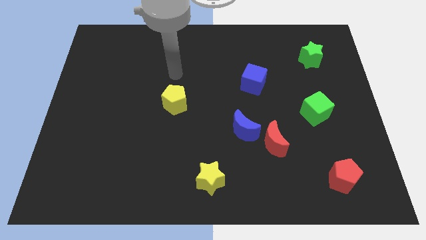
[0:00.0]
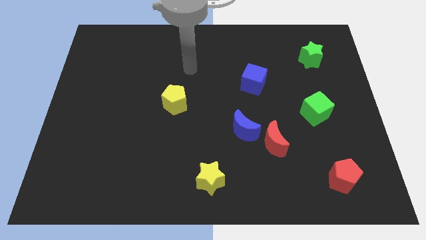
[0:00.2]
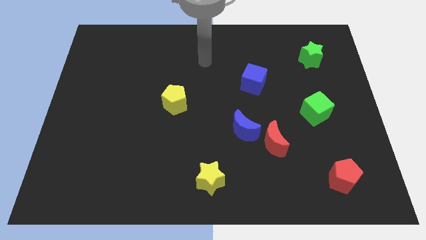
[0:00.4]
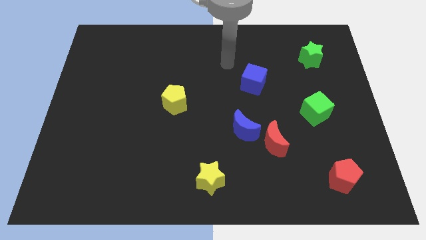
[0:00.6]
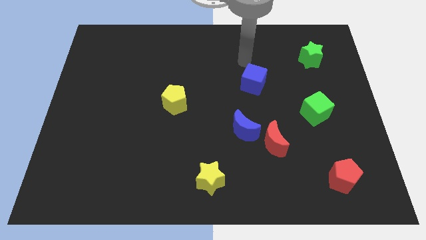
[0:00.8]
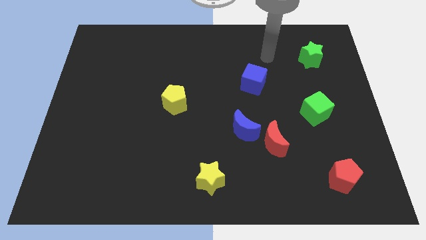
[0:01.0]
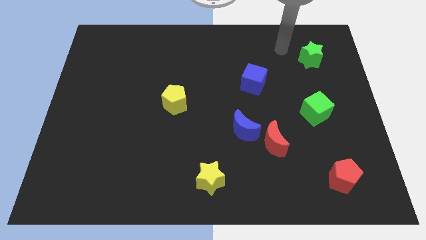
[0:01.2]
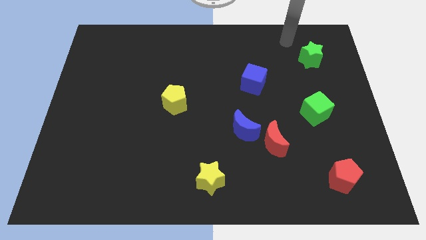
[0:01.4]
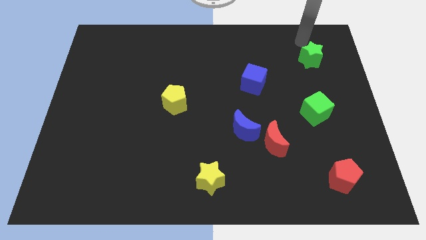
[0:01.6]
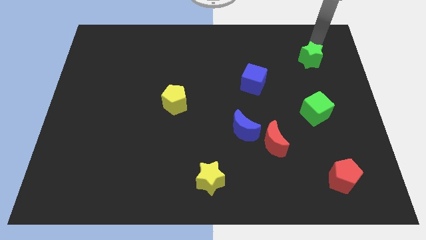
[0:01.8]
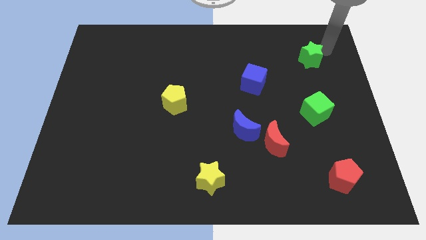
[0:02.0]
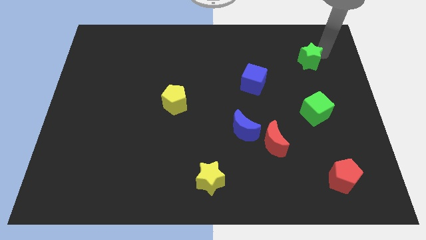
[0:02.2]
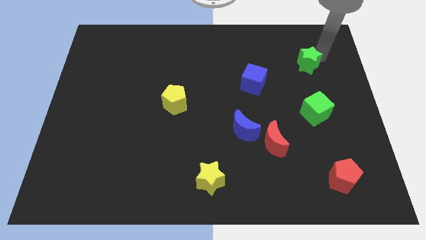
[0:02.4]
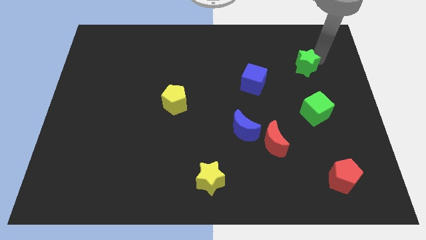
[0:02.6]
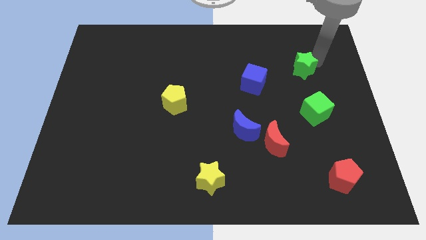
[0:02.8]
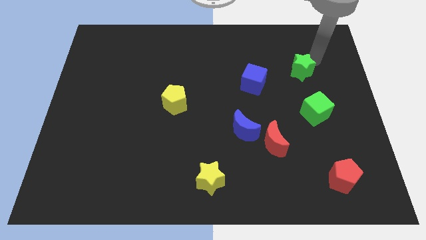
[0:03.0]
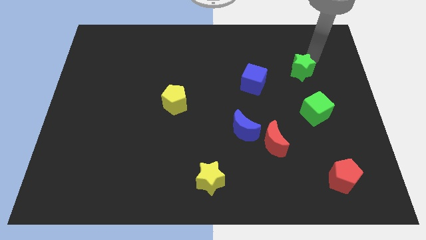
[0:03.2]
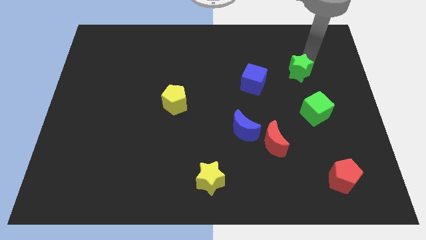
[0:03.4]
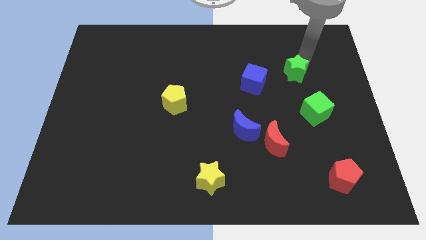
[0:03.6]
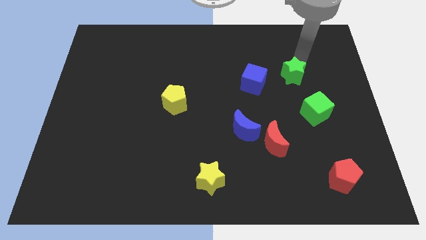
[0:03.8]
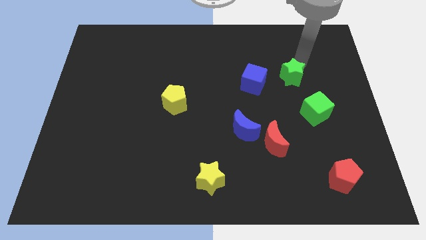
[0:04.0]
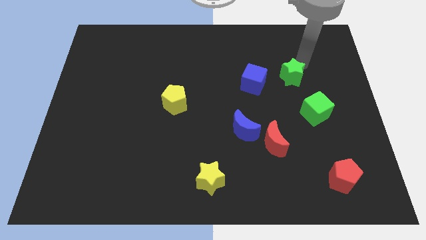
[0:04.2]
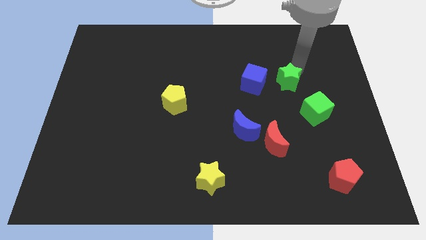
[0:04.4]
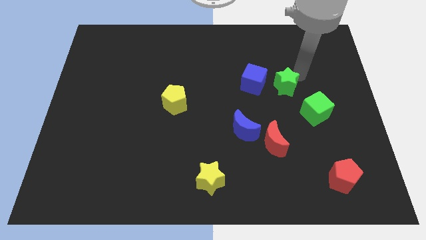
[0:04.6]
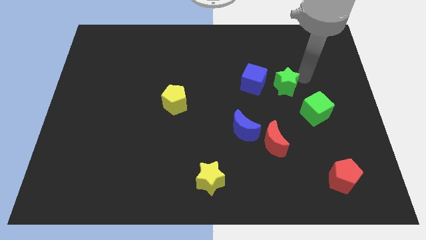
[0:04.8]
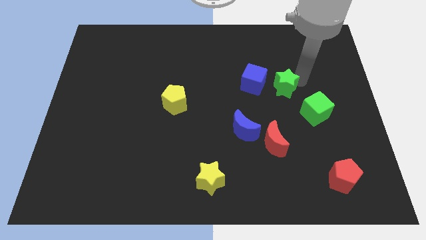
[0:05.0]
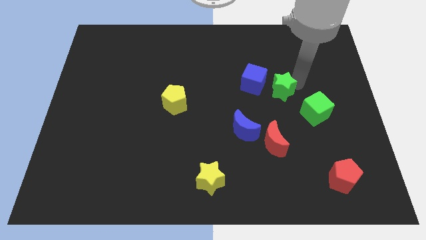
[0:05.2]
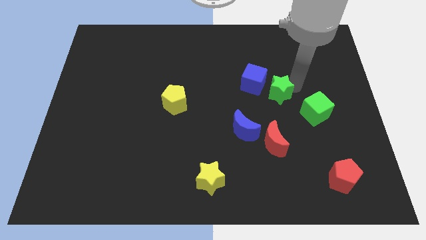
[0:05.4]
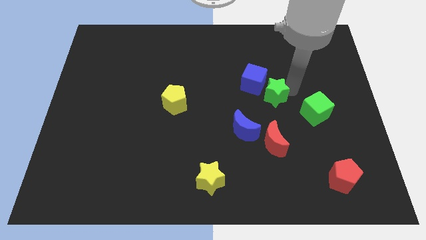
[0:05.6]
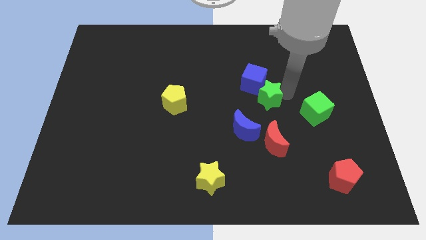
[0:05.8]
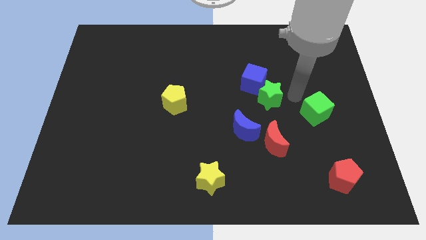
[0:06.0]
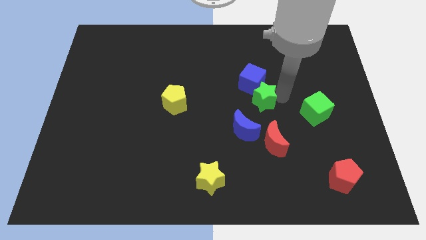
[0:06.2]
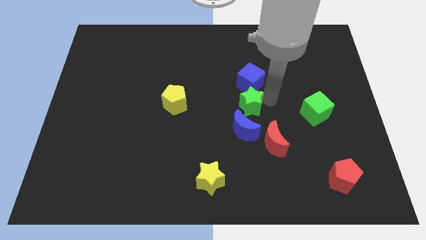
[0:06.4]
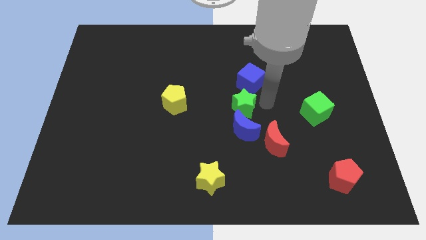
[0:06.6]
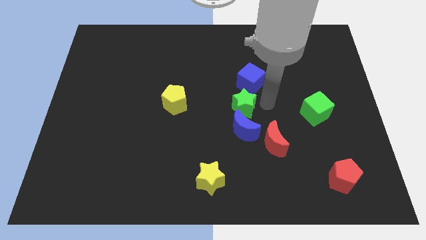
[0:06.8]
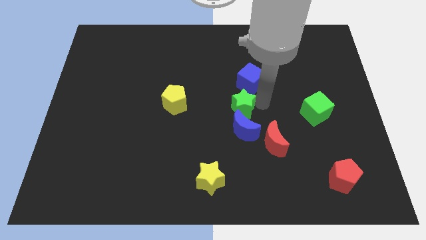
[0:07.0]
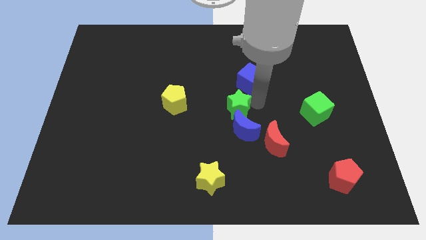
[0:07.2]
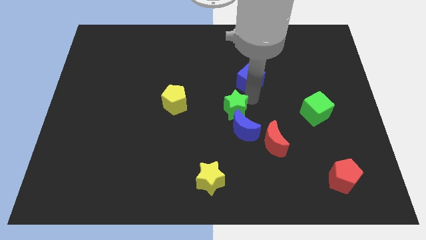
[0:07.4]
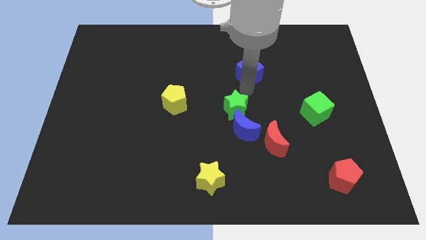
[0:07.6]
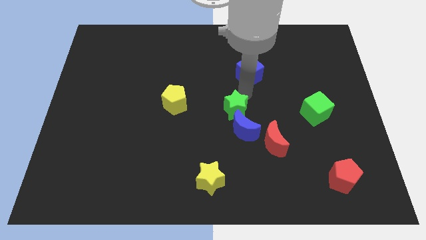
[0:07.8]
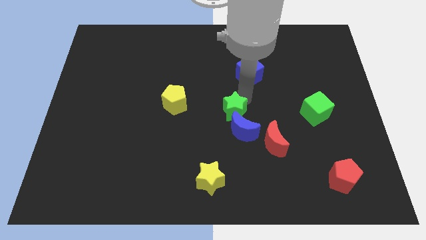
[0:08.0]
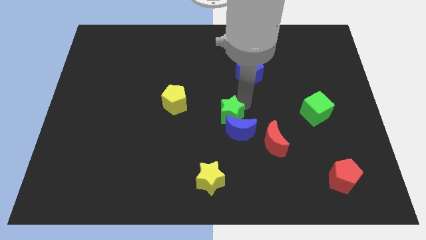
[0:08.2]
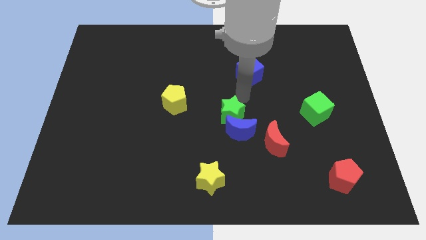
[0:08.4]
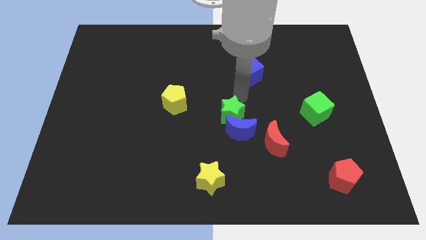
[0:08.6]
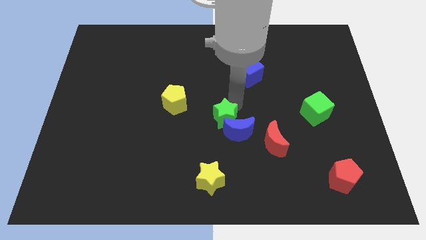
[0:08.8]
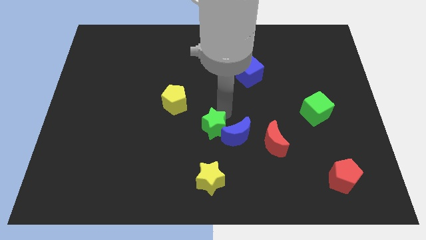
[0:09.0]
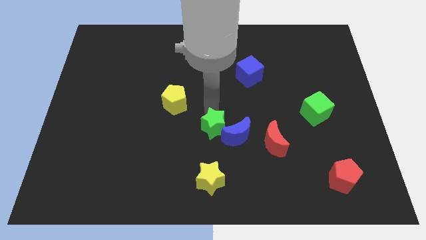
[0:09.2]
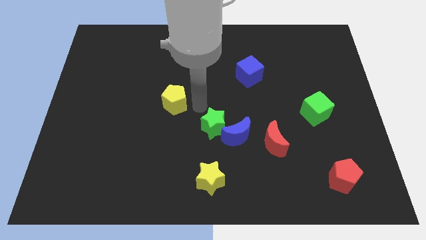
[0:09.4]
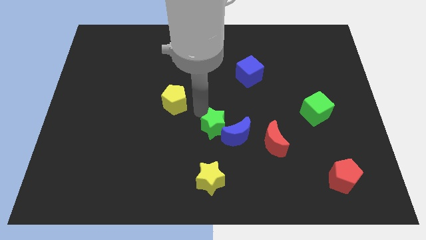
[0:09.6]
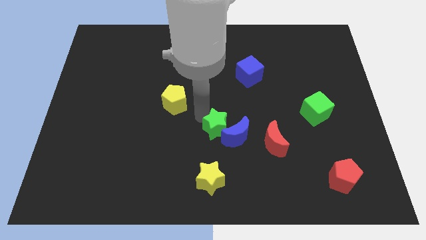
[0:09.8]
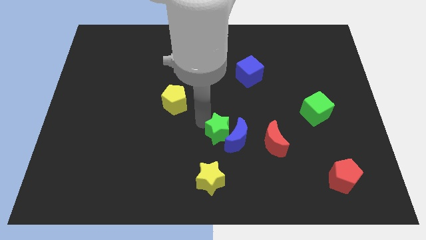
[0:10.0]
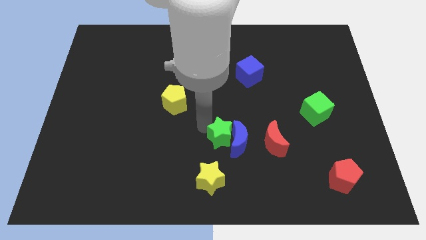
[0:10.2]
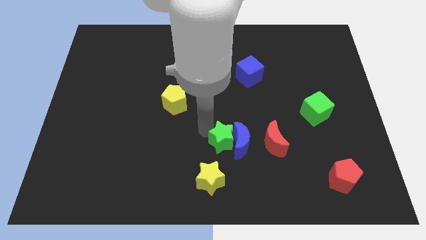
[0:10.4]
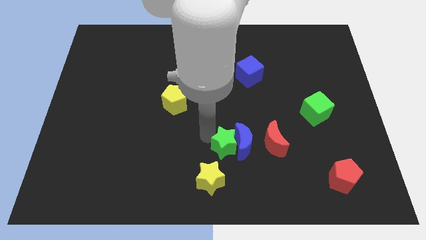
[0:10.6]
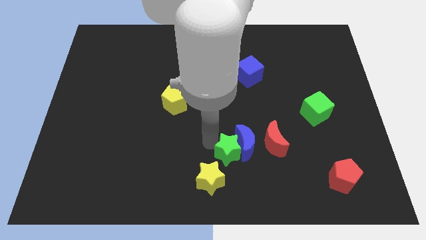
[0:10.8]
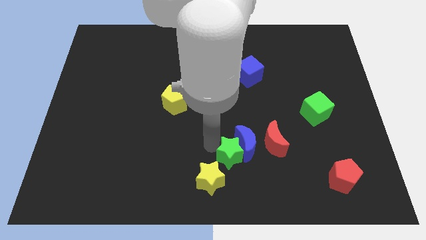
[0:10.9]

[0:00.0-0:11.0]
move the green star to the bottom side

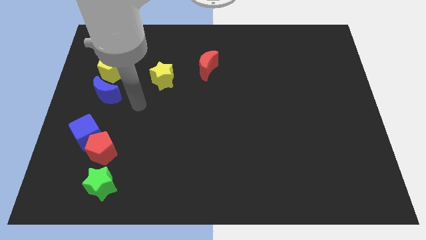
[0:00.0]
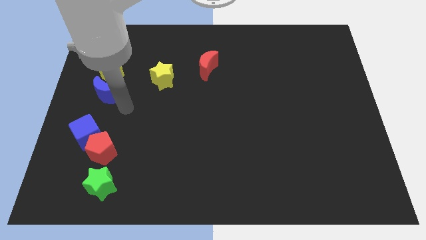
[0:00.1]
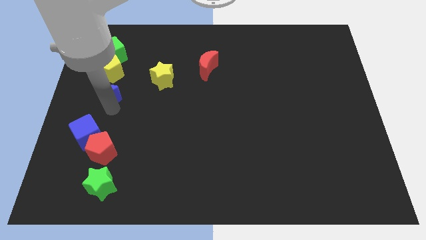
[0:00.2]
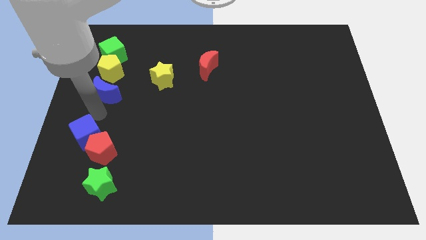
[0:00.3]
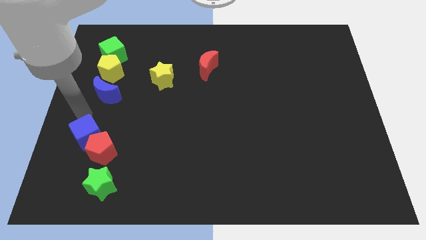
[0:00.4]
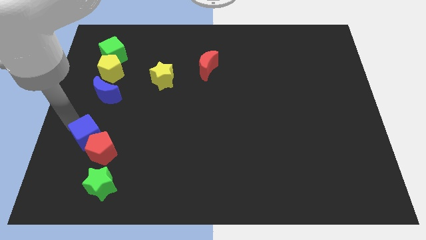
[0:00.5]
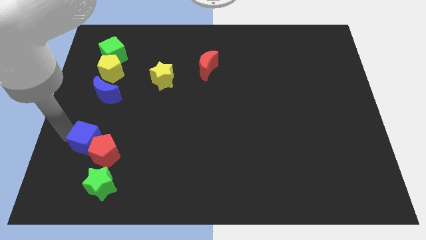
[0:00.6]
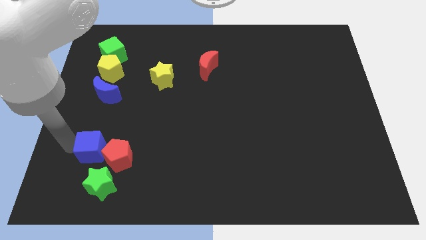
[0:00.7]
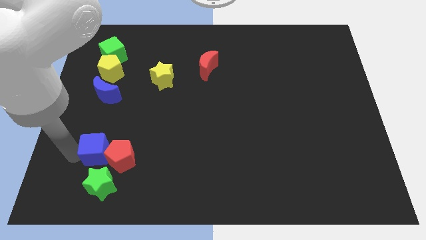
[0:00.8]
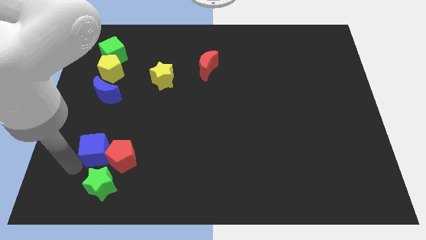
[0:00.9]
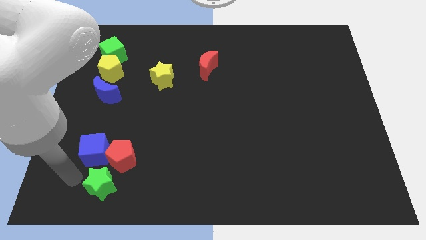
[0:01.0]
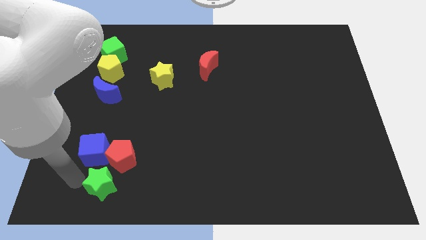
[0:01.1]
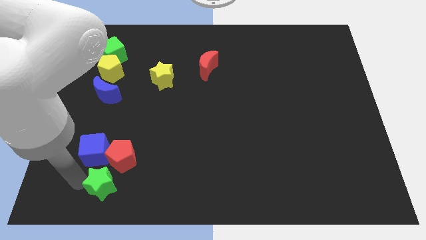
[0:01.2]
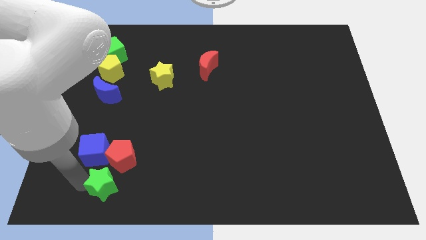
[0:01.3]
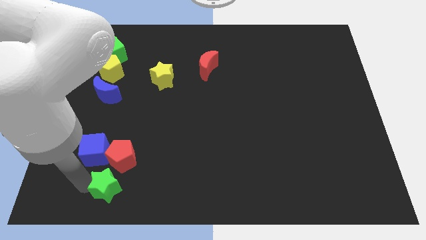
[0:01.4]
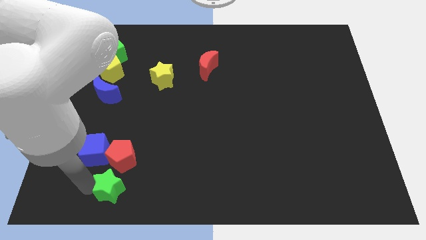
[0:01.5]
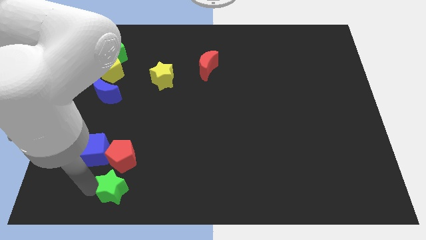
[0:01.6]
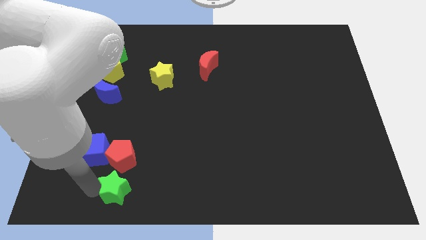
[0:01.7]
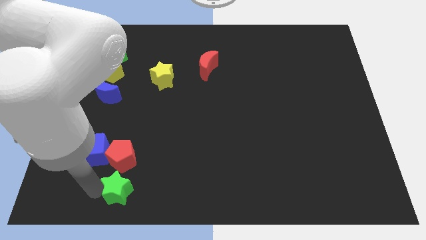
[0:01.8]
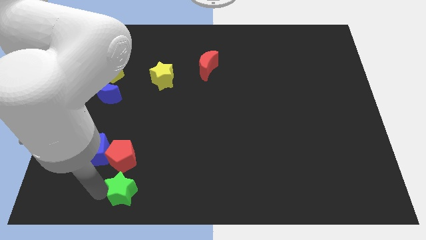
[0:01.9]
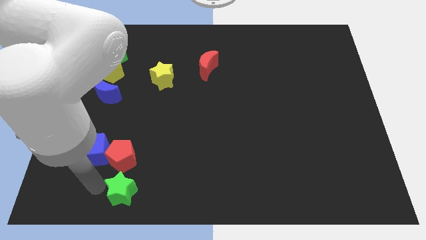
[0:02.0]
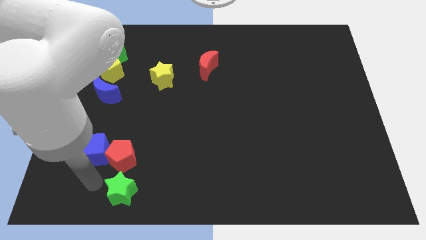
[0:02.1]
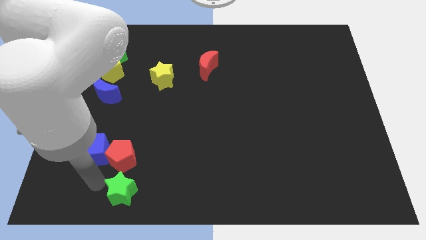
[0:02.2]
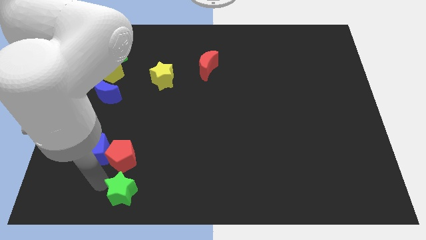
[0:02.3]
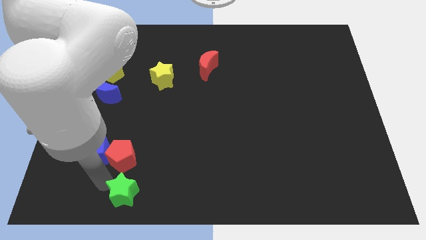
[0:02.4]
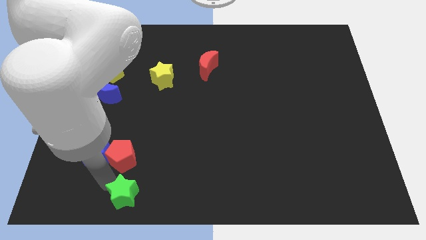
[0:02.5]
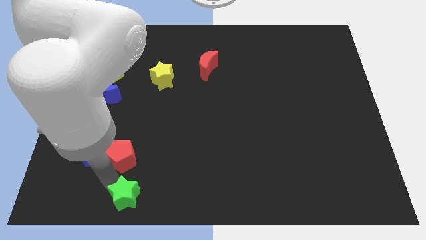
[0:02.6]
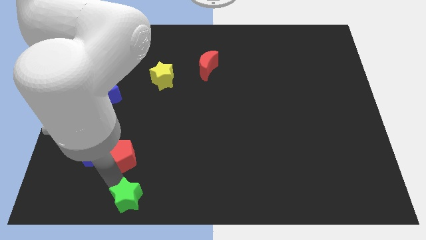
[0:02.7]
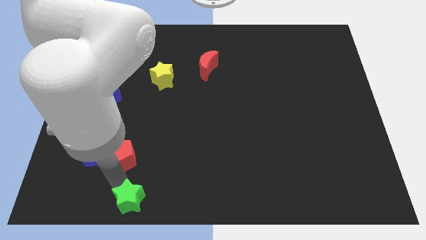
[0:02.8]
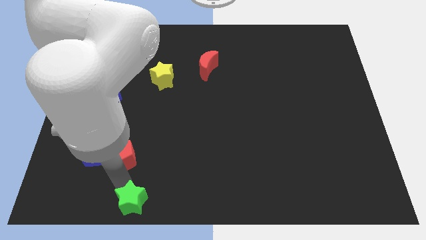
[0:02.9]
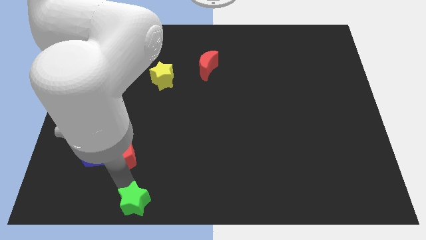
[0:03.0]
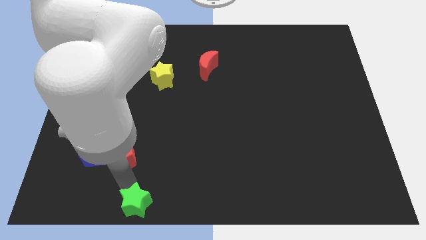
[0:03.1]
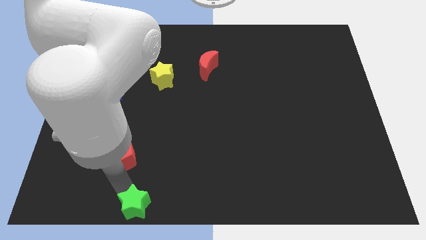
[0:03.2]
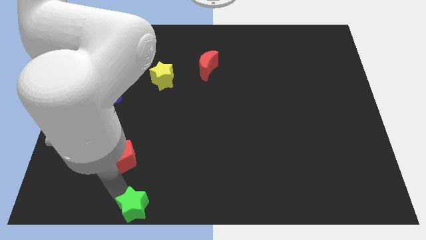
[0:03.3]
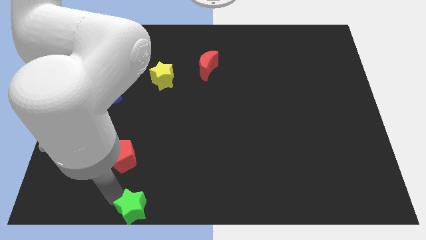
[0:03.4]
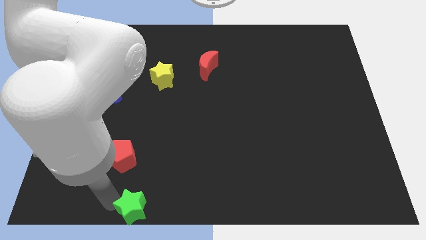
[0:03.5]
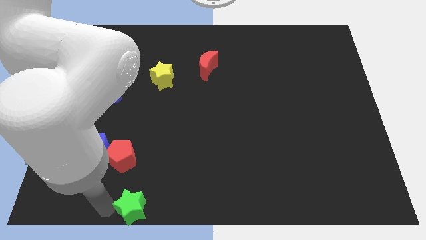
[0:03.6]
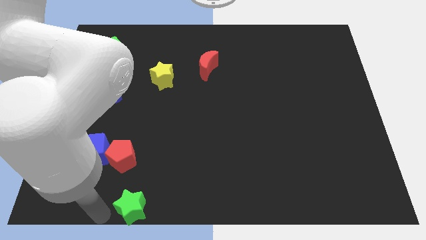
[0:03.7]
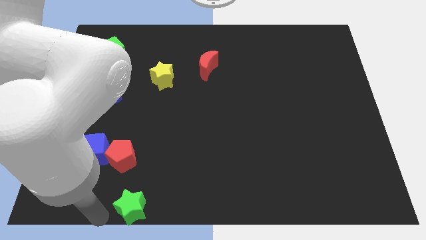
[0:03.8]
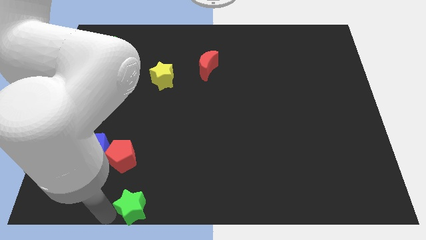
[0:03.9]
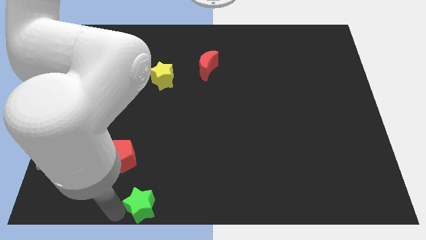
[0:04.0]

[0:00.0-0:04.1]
put the green star to the bottom side
